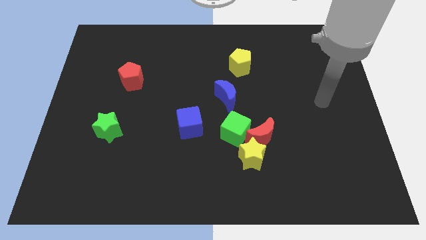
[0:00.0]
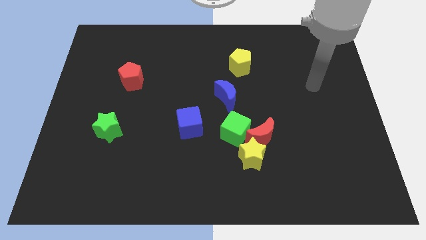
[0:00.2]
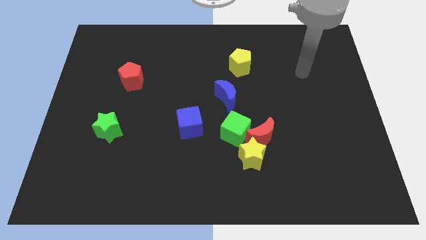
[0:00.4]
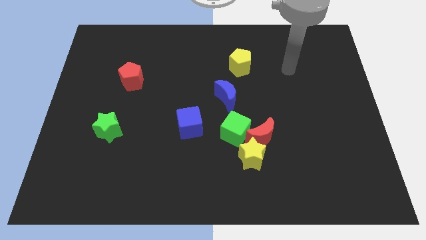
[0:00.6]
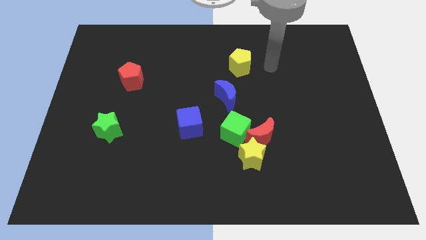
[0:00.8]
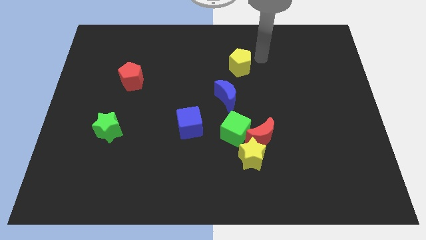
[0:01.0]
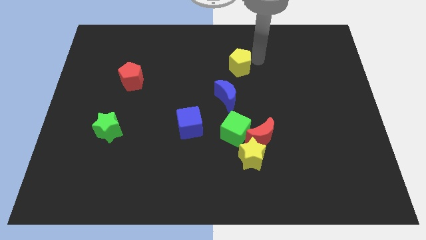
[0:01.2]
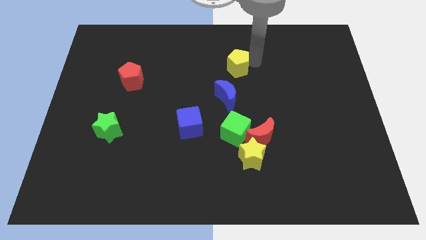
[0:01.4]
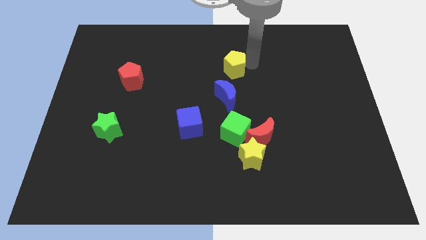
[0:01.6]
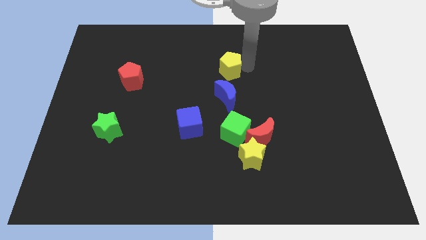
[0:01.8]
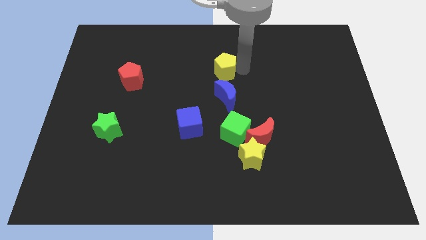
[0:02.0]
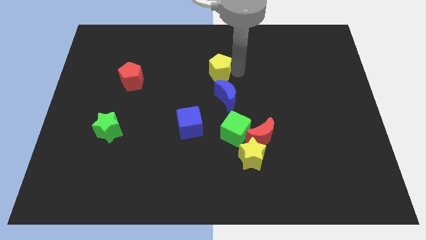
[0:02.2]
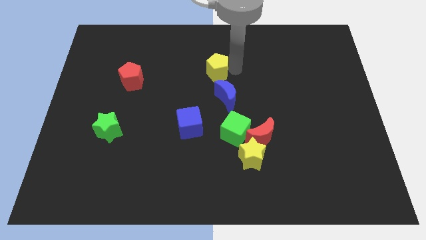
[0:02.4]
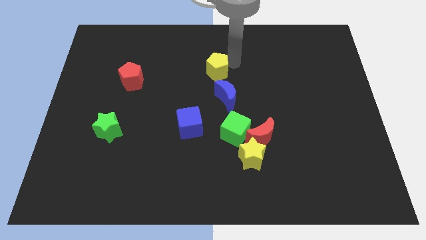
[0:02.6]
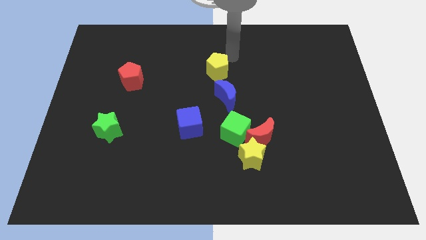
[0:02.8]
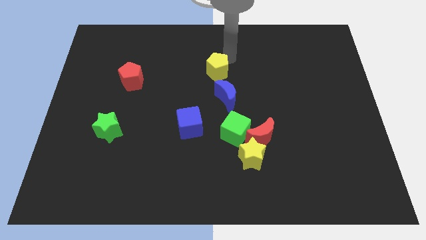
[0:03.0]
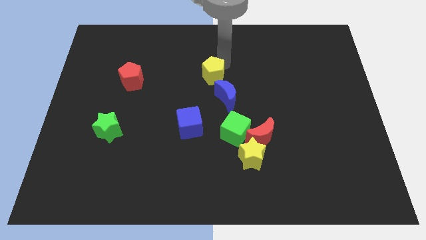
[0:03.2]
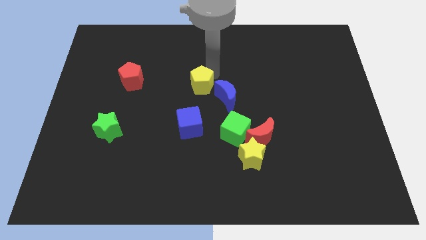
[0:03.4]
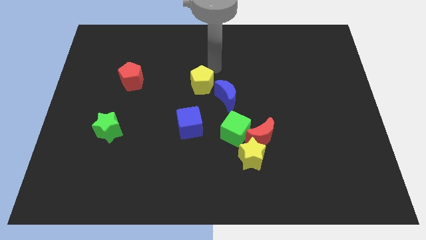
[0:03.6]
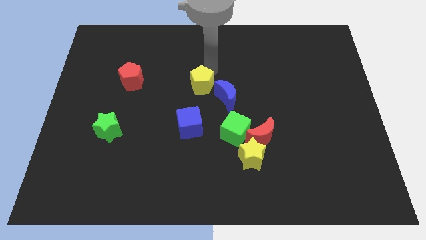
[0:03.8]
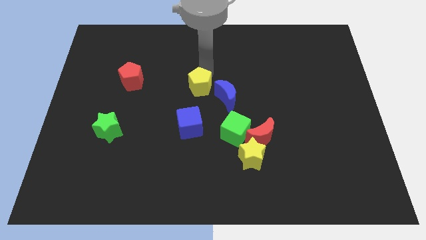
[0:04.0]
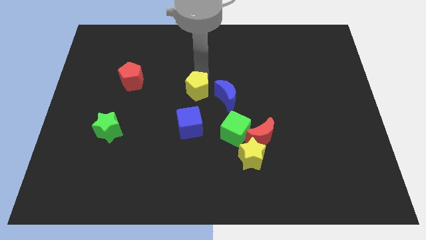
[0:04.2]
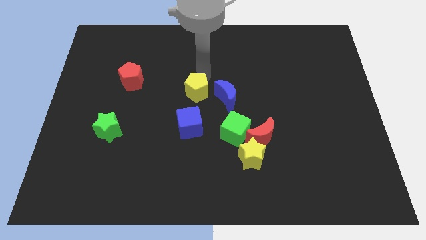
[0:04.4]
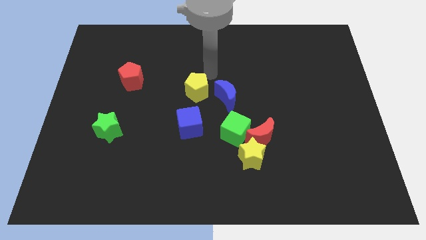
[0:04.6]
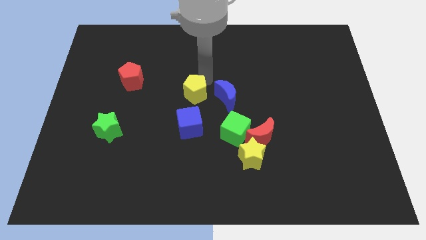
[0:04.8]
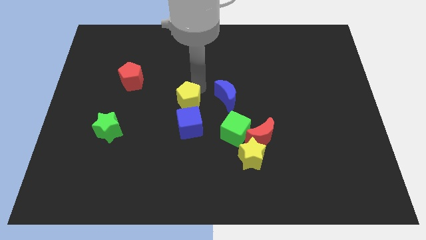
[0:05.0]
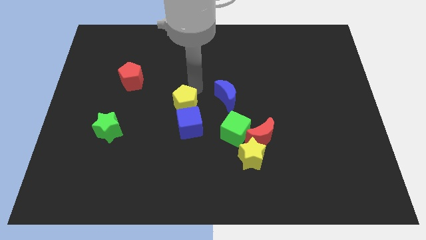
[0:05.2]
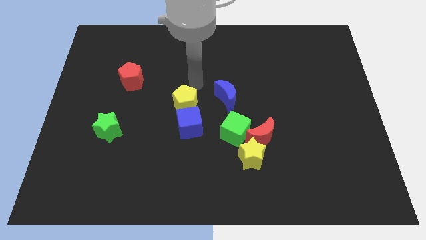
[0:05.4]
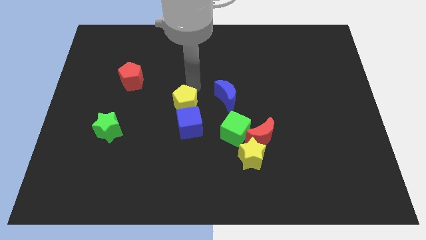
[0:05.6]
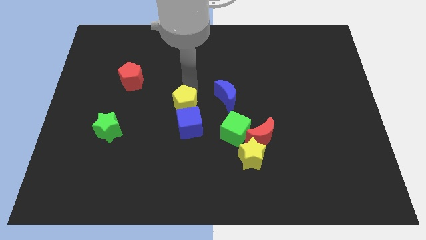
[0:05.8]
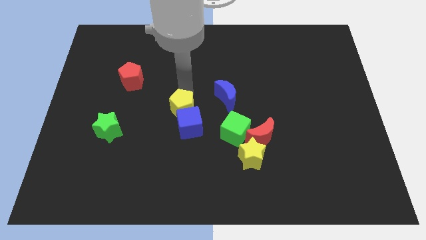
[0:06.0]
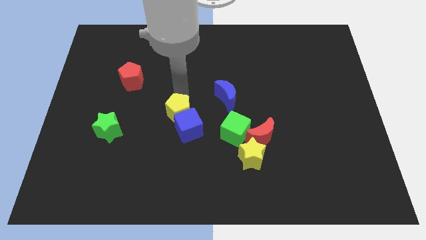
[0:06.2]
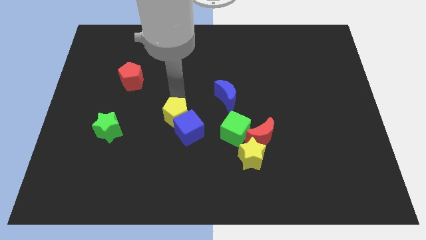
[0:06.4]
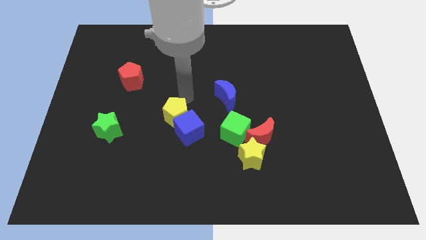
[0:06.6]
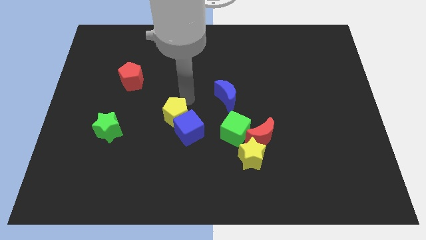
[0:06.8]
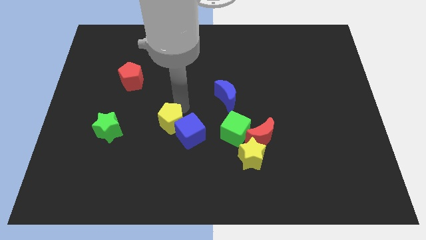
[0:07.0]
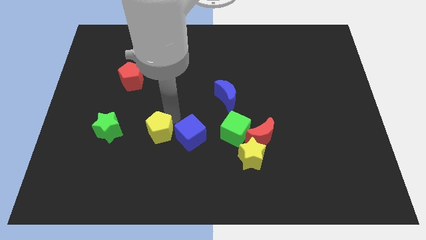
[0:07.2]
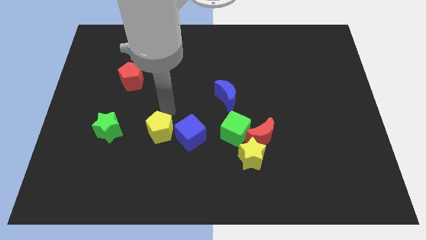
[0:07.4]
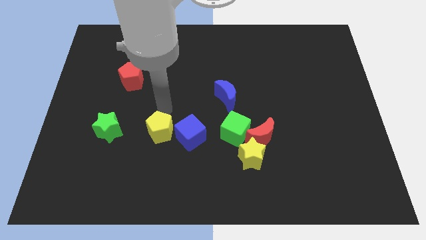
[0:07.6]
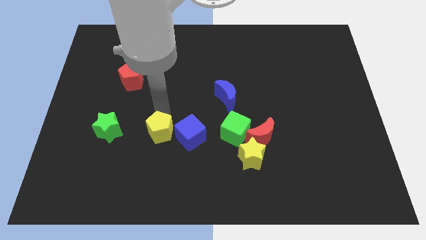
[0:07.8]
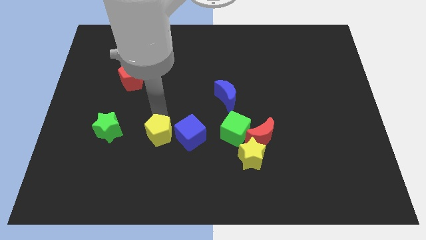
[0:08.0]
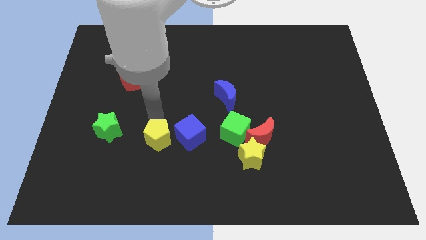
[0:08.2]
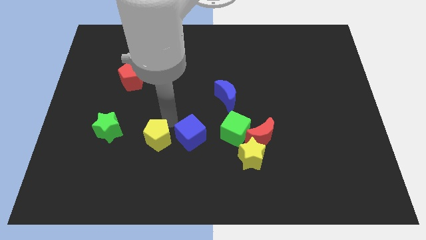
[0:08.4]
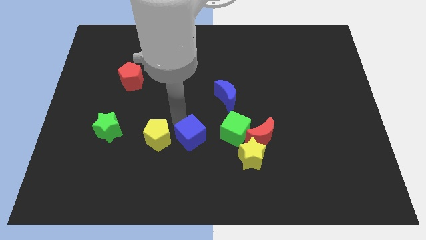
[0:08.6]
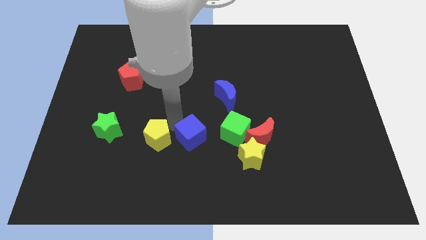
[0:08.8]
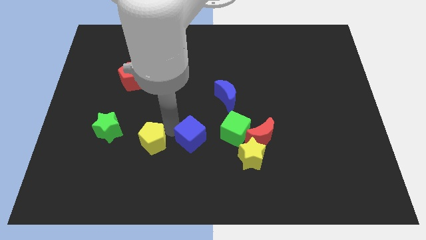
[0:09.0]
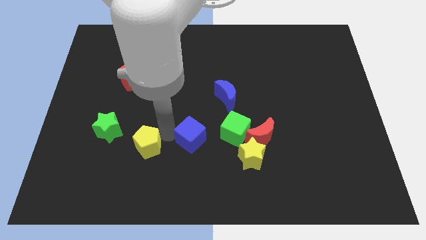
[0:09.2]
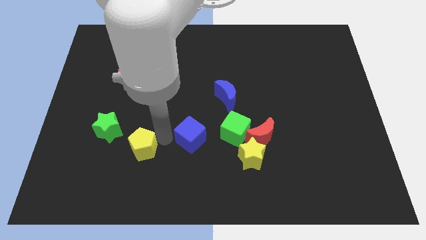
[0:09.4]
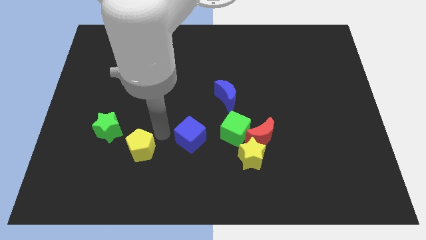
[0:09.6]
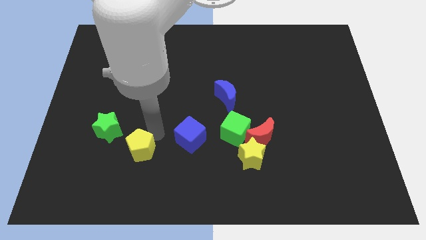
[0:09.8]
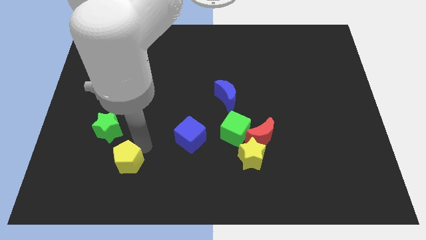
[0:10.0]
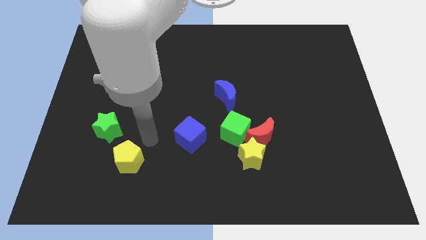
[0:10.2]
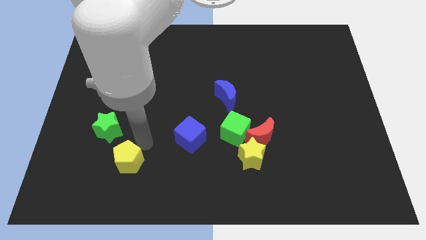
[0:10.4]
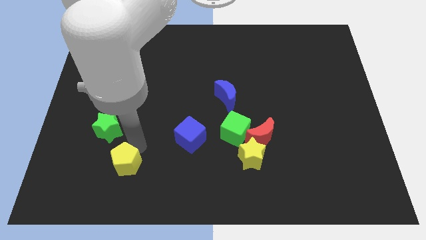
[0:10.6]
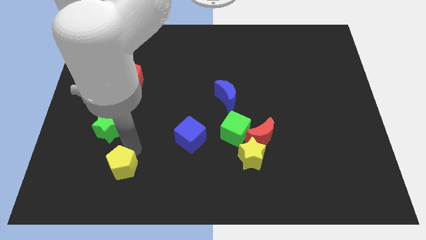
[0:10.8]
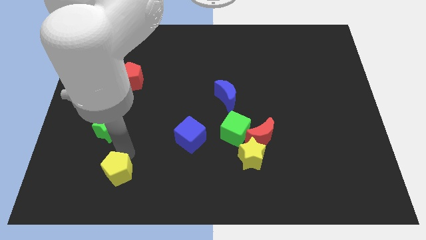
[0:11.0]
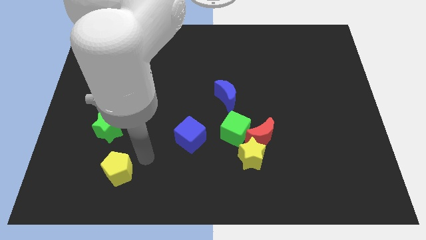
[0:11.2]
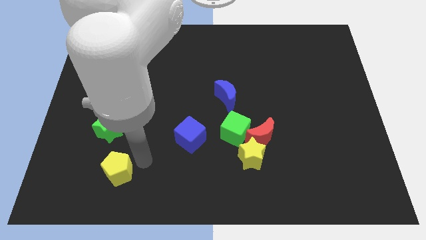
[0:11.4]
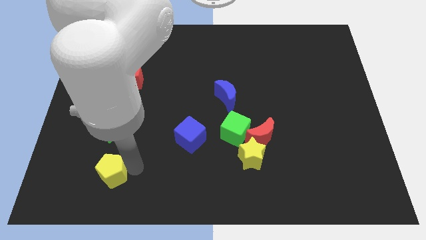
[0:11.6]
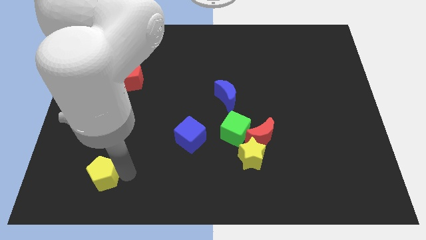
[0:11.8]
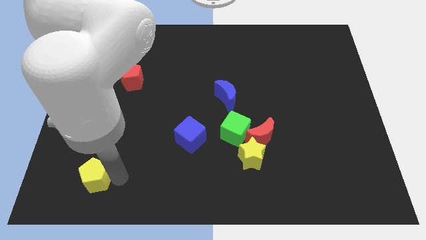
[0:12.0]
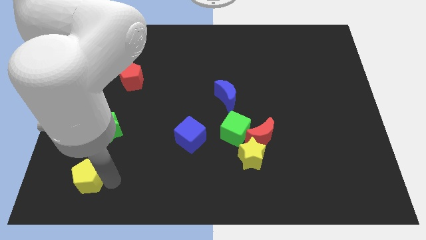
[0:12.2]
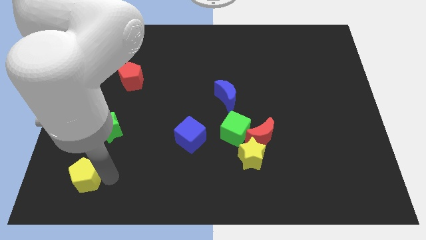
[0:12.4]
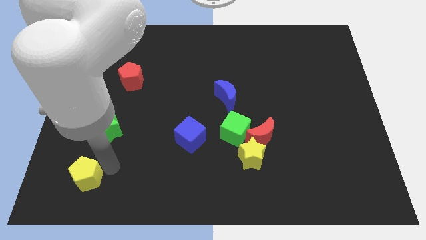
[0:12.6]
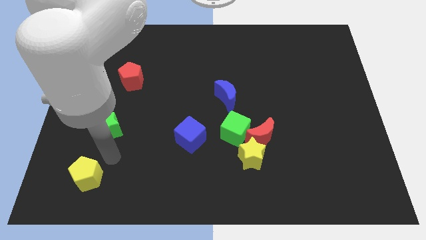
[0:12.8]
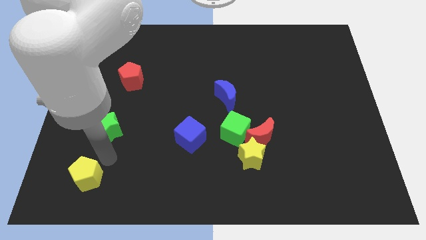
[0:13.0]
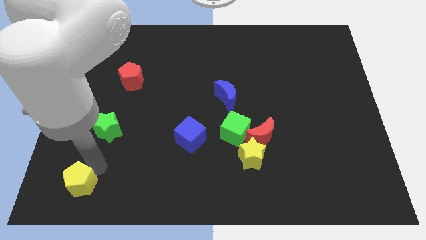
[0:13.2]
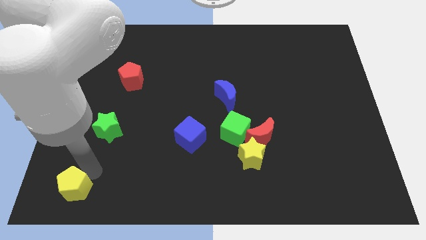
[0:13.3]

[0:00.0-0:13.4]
push the yellow pentagon to the lower left corner
